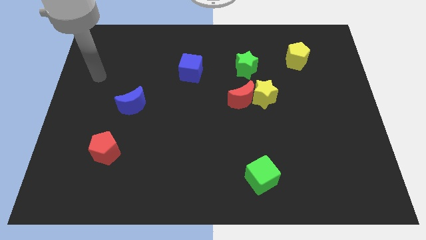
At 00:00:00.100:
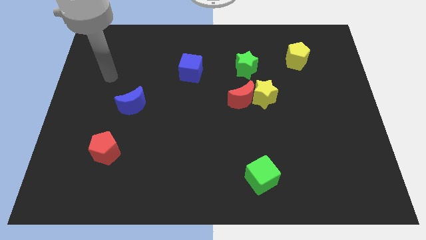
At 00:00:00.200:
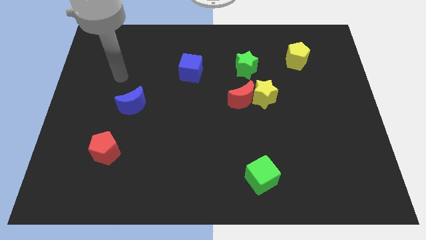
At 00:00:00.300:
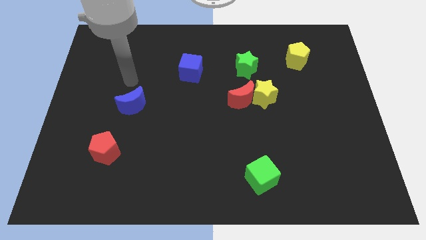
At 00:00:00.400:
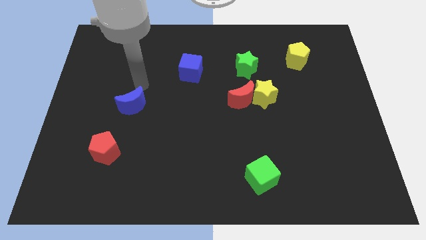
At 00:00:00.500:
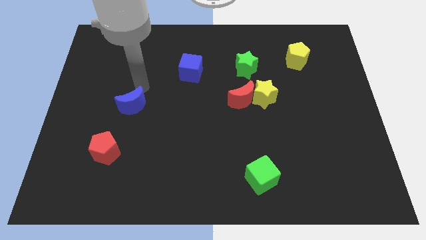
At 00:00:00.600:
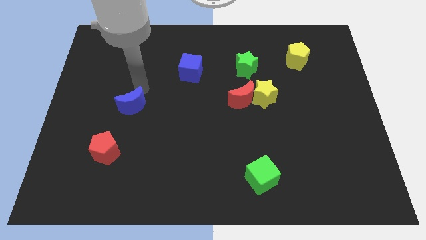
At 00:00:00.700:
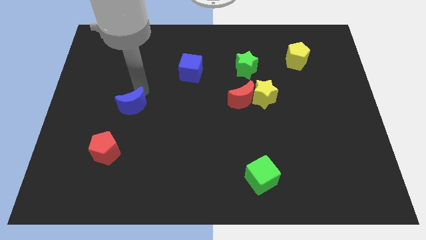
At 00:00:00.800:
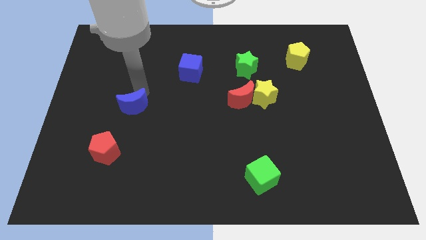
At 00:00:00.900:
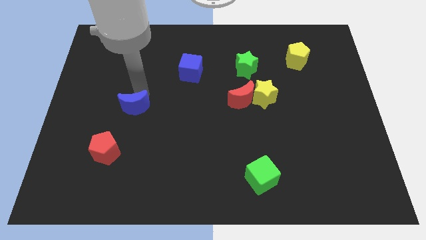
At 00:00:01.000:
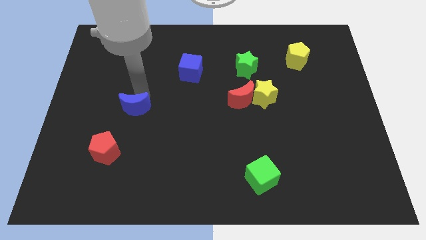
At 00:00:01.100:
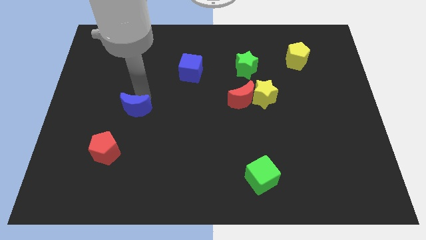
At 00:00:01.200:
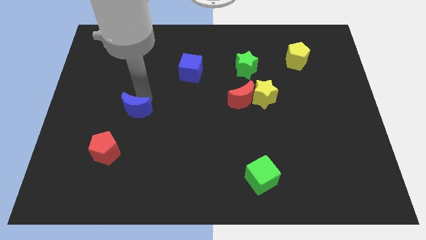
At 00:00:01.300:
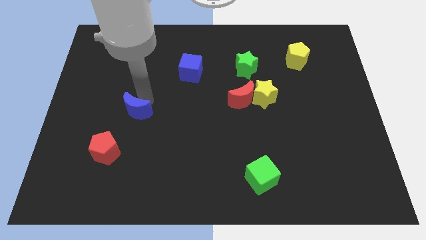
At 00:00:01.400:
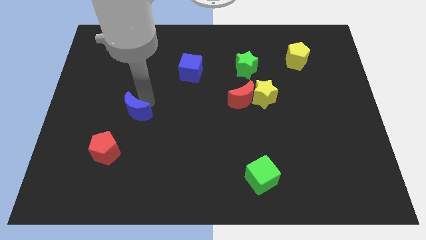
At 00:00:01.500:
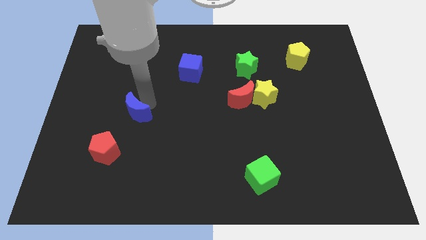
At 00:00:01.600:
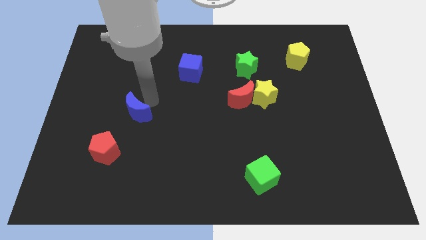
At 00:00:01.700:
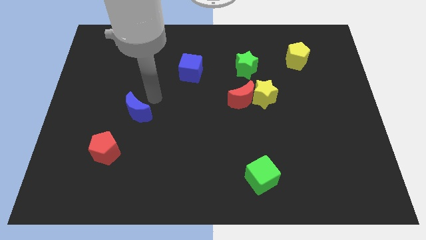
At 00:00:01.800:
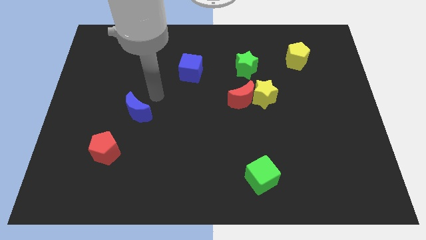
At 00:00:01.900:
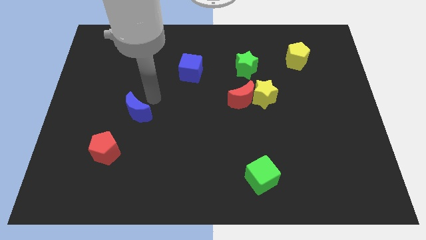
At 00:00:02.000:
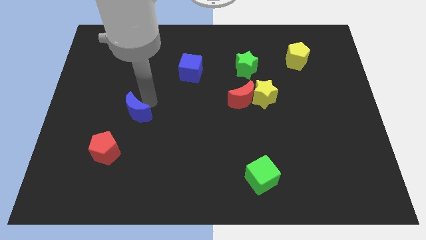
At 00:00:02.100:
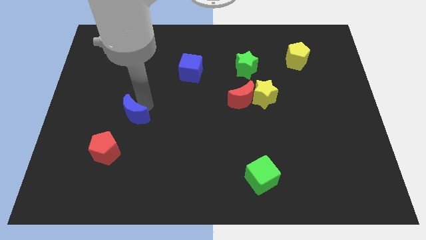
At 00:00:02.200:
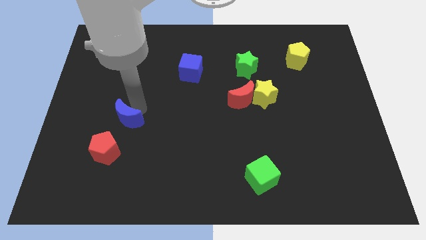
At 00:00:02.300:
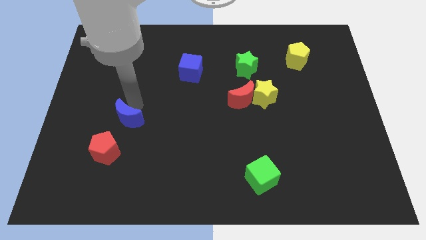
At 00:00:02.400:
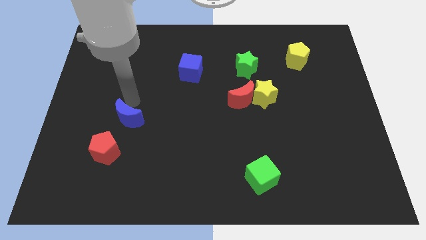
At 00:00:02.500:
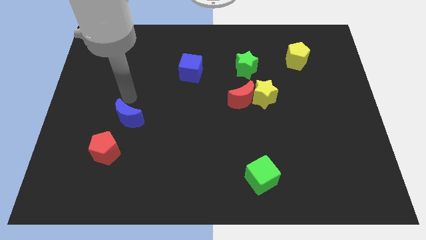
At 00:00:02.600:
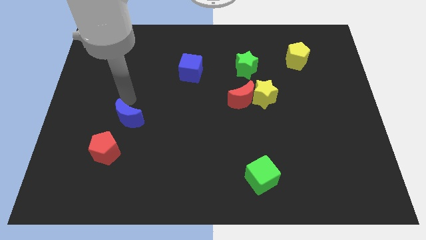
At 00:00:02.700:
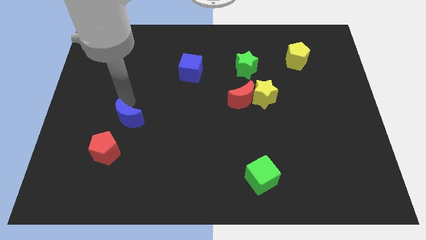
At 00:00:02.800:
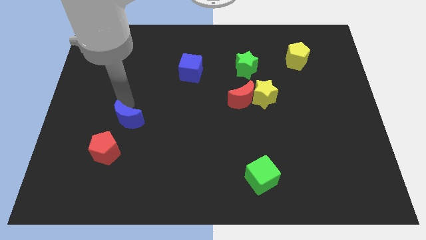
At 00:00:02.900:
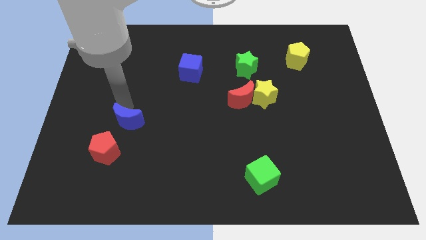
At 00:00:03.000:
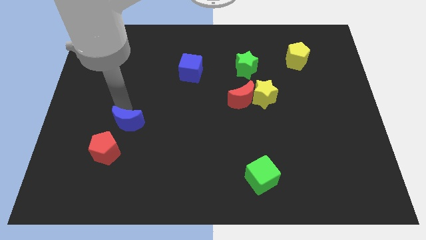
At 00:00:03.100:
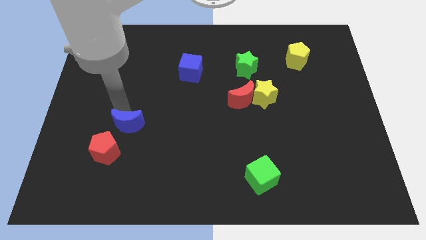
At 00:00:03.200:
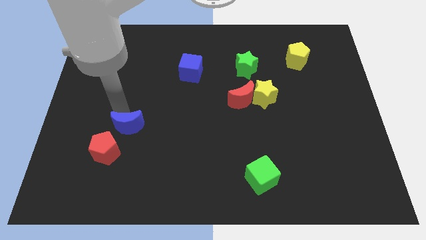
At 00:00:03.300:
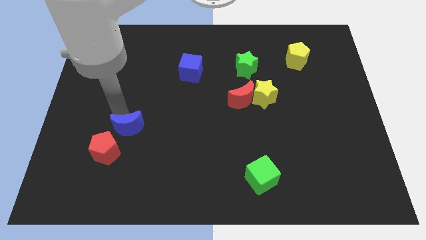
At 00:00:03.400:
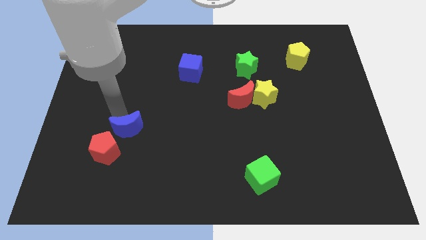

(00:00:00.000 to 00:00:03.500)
push the blue moon downwards somewhat

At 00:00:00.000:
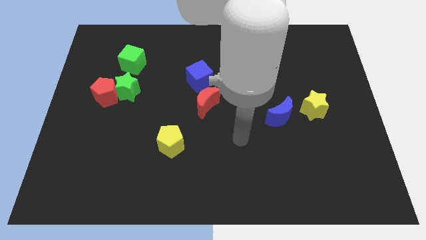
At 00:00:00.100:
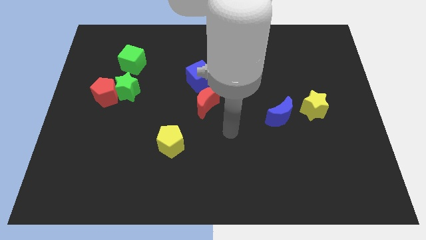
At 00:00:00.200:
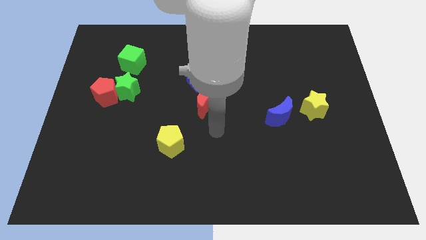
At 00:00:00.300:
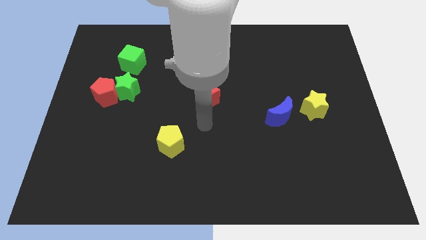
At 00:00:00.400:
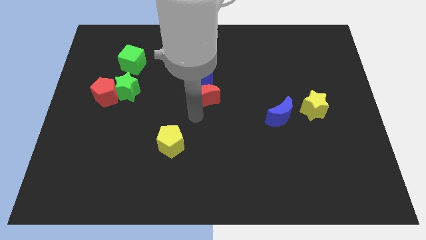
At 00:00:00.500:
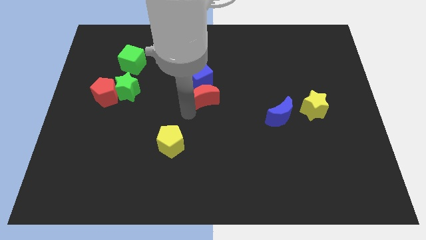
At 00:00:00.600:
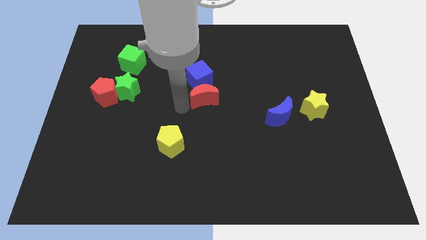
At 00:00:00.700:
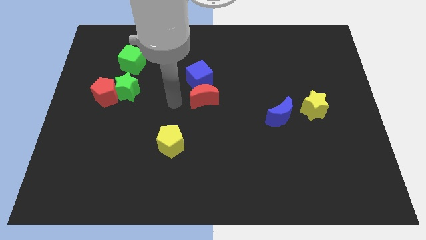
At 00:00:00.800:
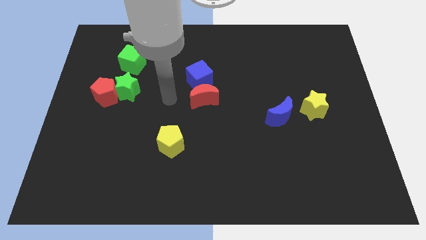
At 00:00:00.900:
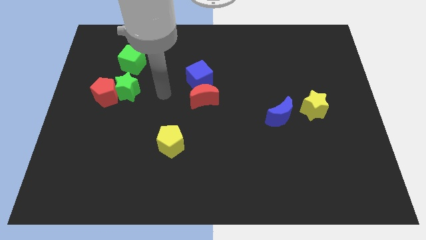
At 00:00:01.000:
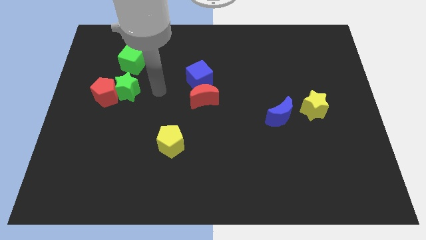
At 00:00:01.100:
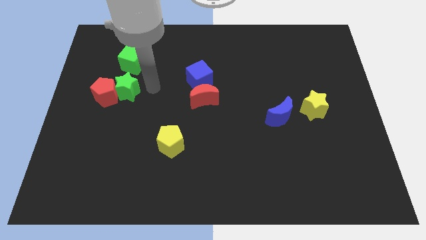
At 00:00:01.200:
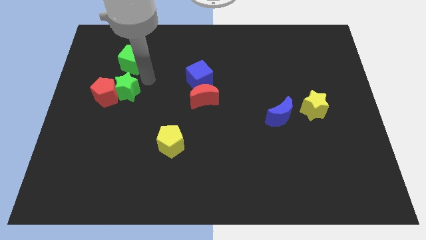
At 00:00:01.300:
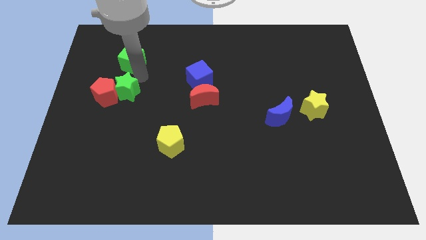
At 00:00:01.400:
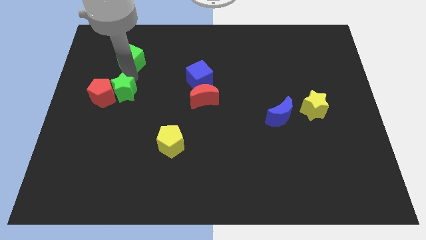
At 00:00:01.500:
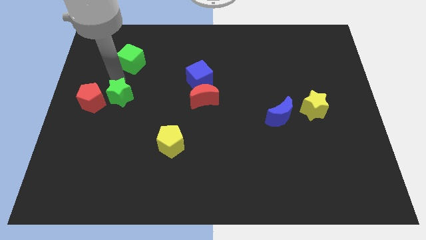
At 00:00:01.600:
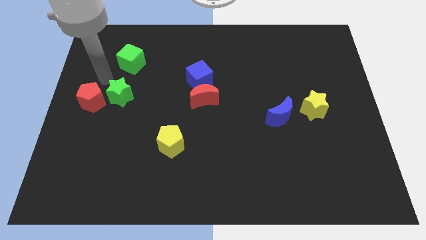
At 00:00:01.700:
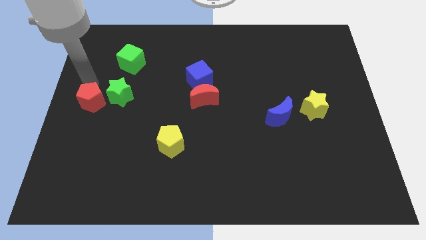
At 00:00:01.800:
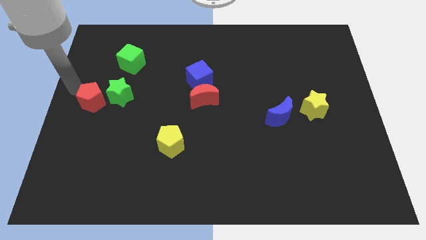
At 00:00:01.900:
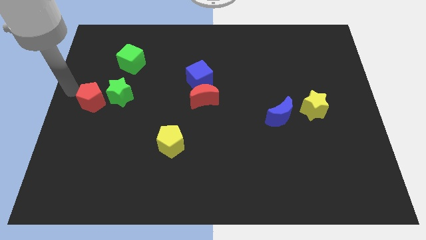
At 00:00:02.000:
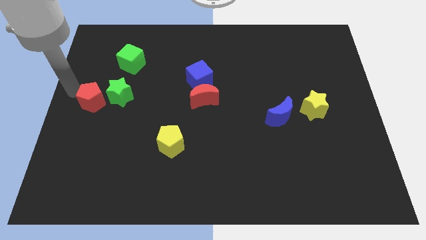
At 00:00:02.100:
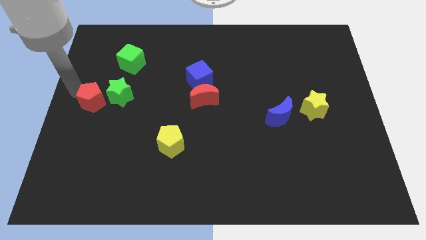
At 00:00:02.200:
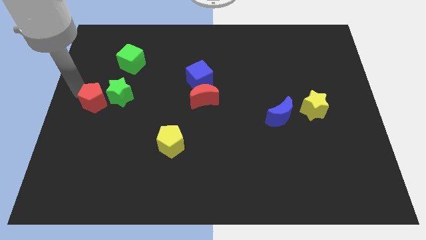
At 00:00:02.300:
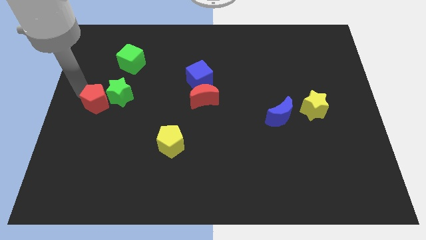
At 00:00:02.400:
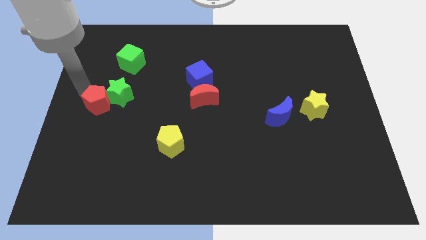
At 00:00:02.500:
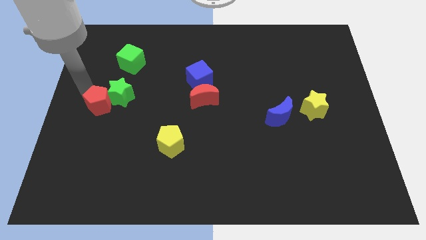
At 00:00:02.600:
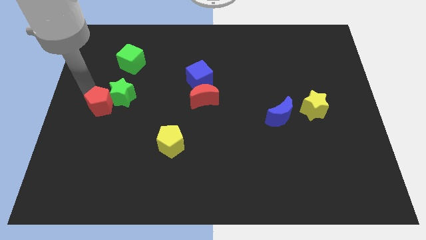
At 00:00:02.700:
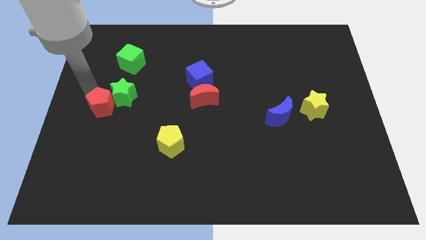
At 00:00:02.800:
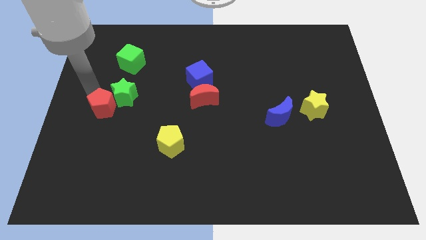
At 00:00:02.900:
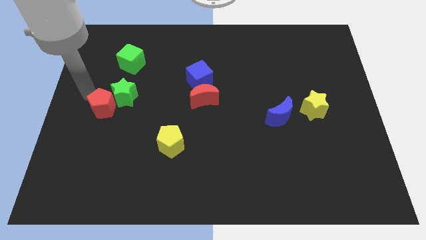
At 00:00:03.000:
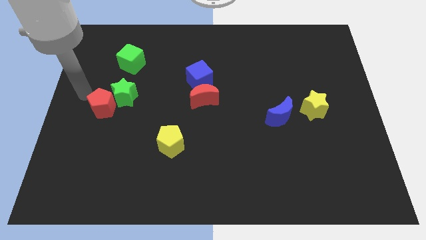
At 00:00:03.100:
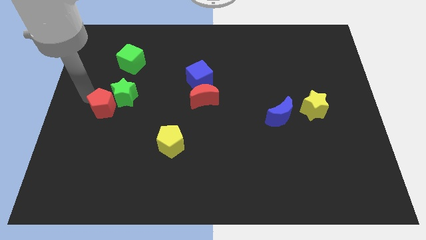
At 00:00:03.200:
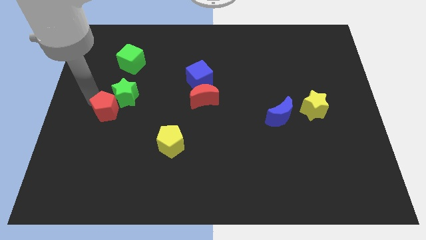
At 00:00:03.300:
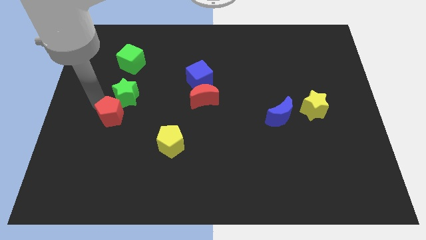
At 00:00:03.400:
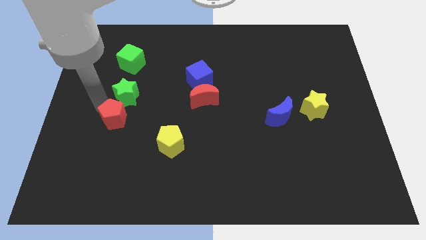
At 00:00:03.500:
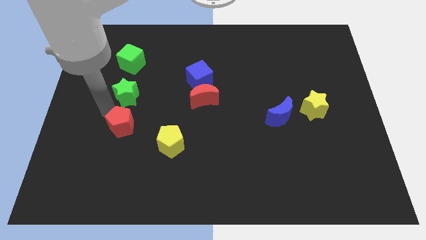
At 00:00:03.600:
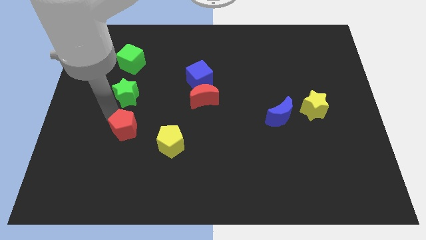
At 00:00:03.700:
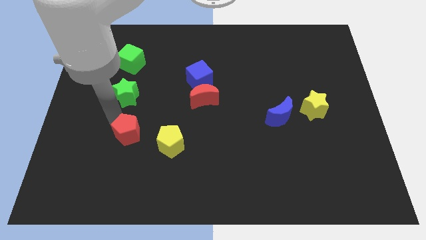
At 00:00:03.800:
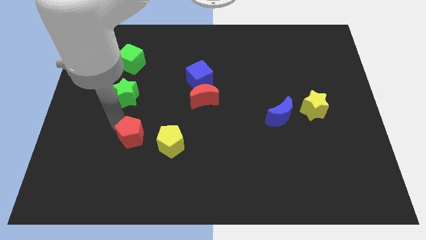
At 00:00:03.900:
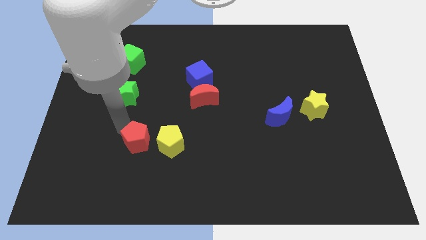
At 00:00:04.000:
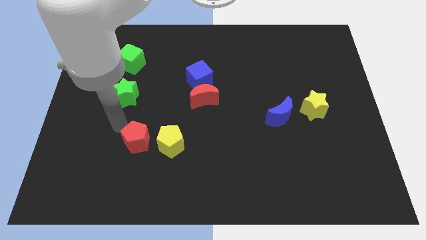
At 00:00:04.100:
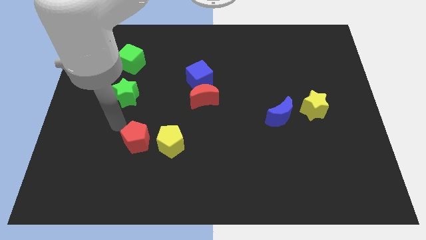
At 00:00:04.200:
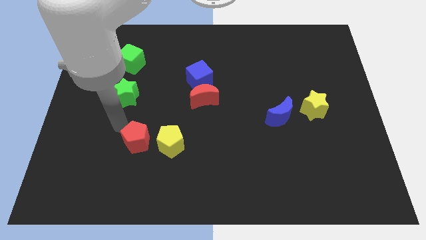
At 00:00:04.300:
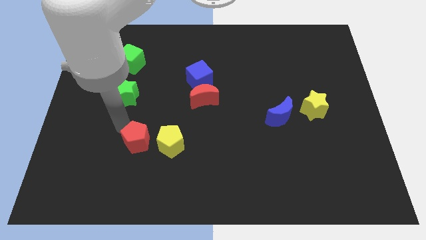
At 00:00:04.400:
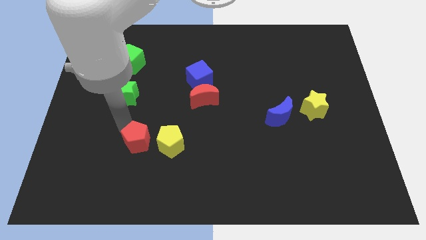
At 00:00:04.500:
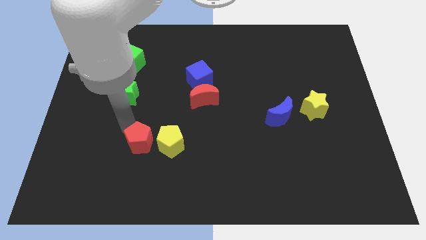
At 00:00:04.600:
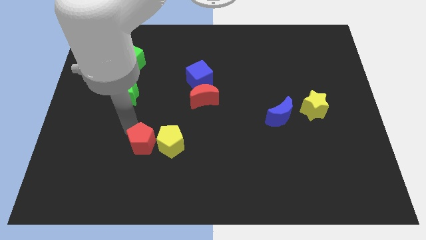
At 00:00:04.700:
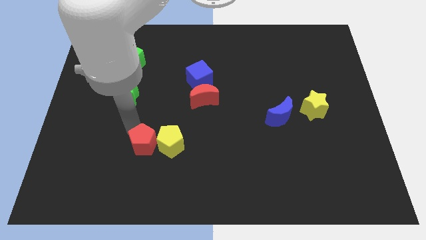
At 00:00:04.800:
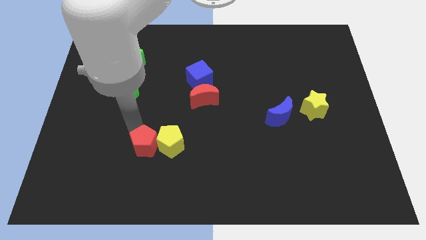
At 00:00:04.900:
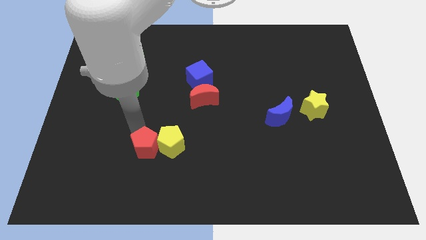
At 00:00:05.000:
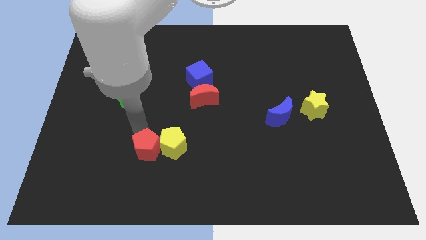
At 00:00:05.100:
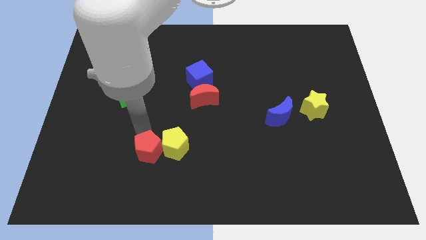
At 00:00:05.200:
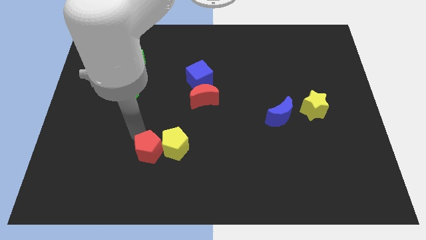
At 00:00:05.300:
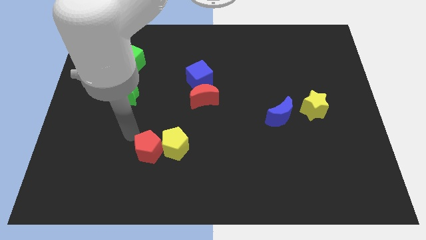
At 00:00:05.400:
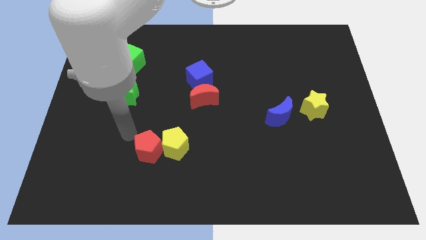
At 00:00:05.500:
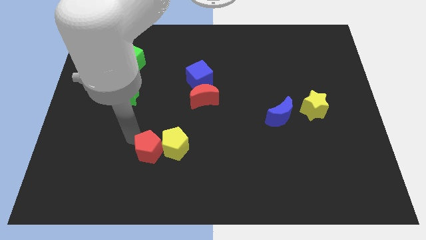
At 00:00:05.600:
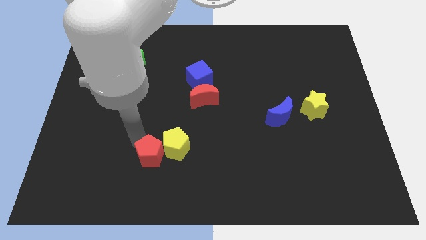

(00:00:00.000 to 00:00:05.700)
move the red pentagon diagonally downwards and to the right
